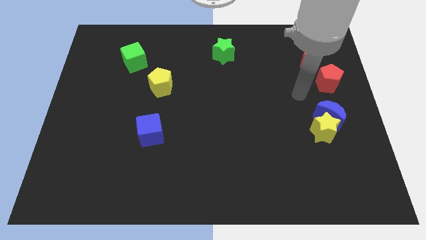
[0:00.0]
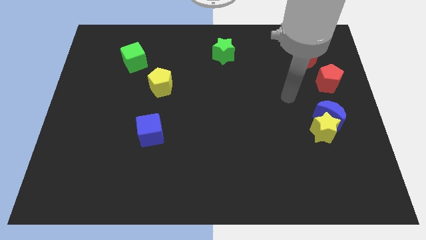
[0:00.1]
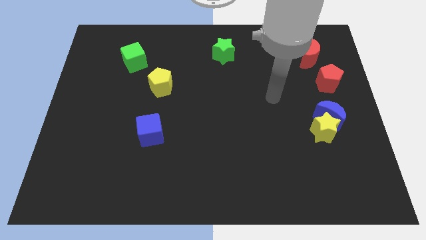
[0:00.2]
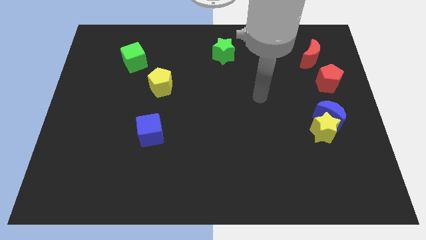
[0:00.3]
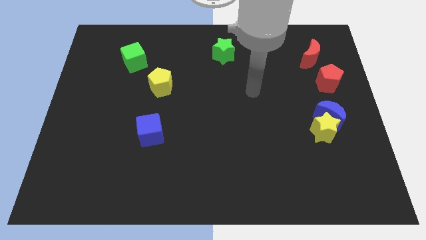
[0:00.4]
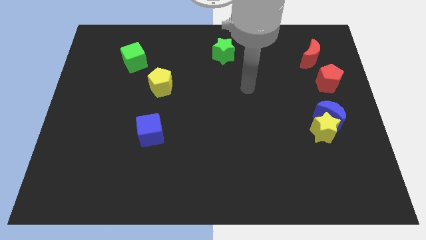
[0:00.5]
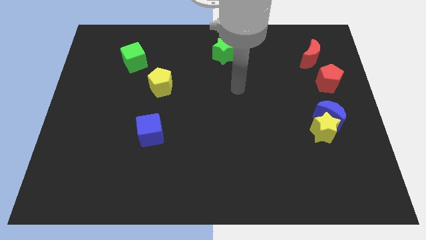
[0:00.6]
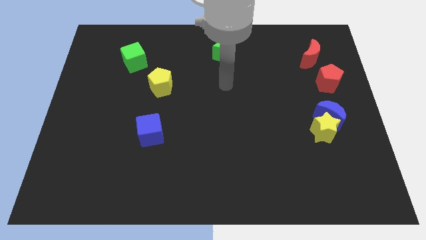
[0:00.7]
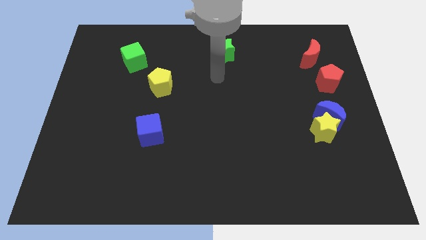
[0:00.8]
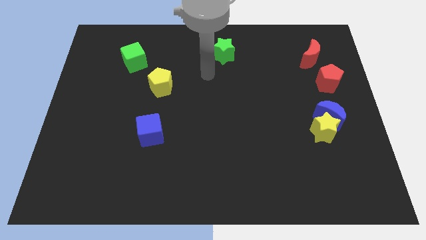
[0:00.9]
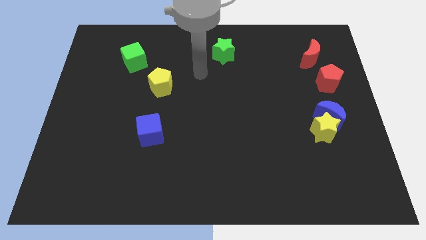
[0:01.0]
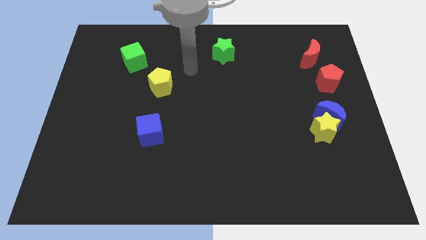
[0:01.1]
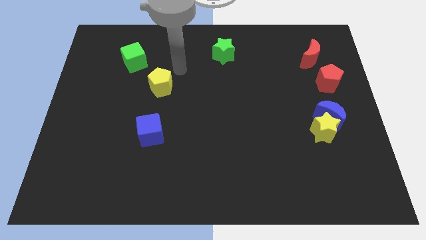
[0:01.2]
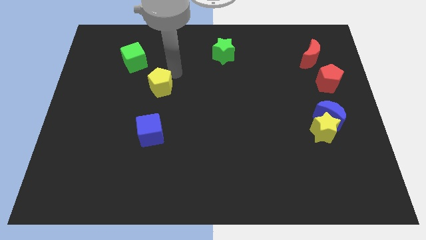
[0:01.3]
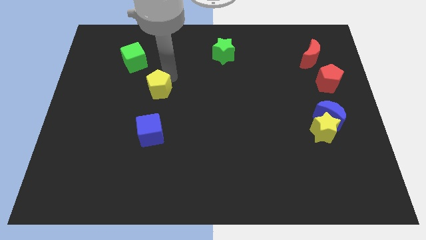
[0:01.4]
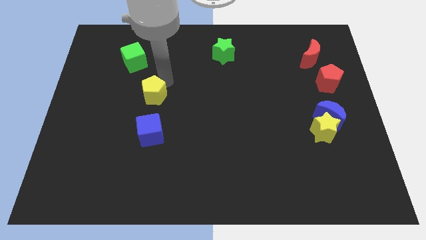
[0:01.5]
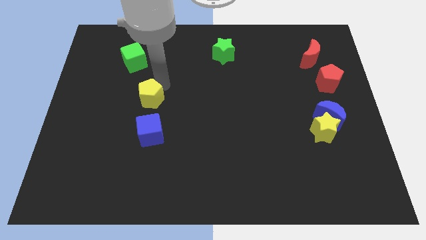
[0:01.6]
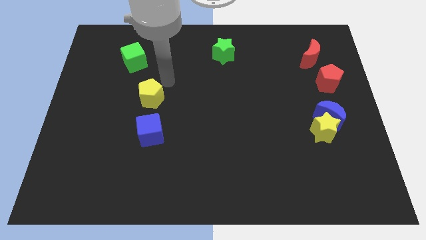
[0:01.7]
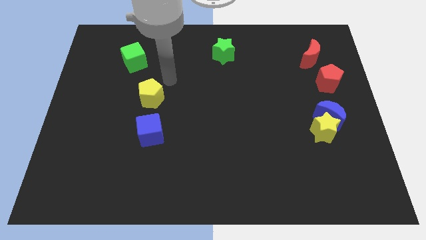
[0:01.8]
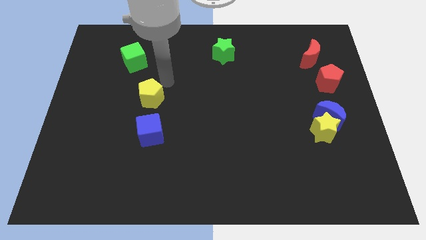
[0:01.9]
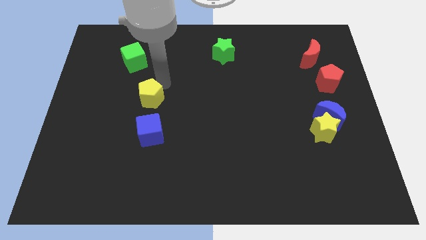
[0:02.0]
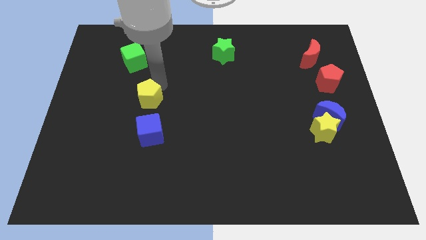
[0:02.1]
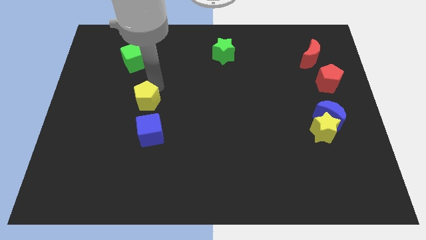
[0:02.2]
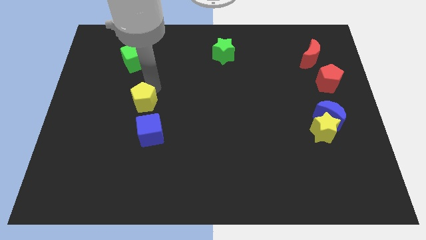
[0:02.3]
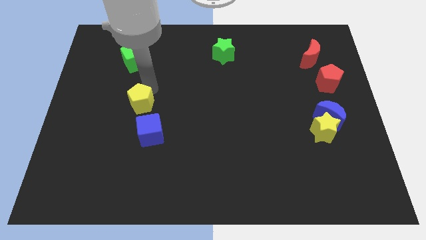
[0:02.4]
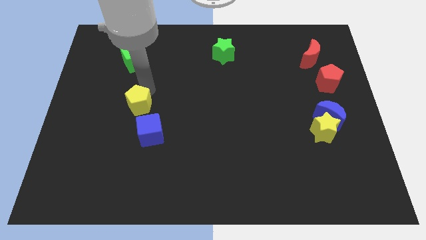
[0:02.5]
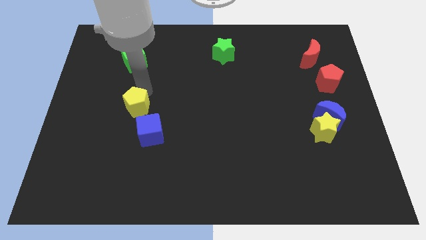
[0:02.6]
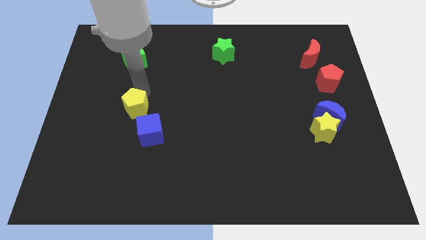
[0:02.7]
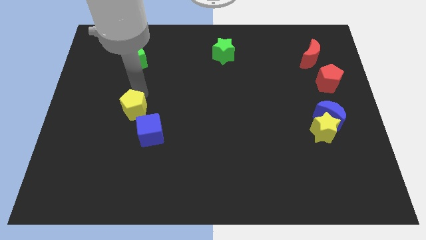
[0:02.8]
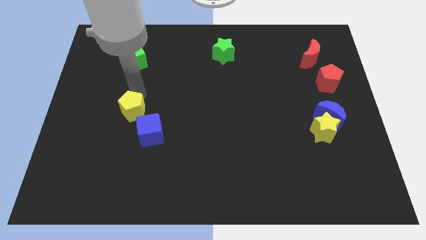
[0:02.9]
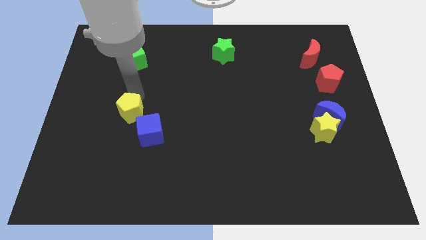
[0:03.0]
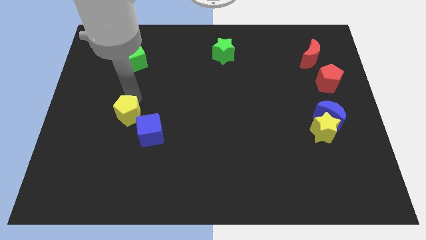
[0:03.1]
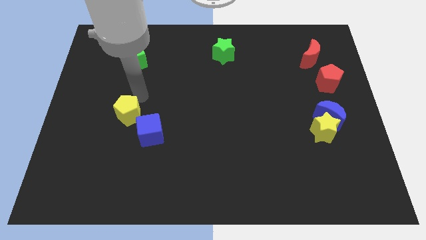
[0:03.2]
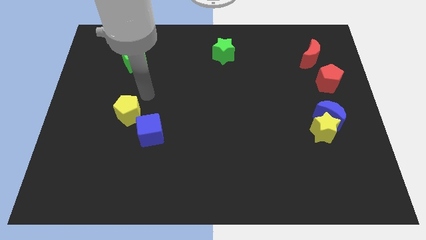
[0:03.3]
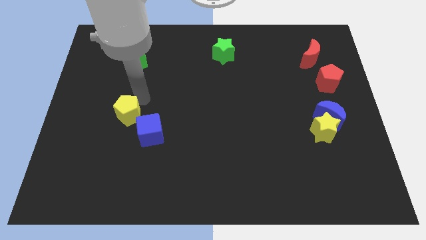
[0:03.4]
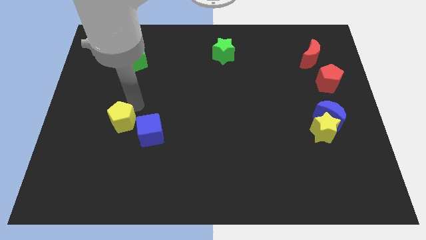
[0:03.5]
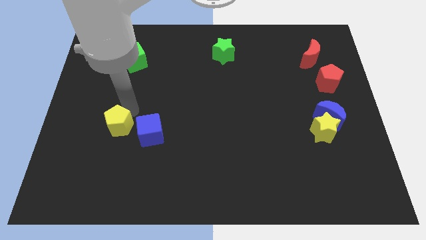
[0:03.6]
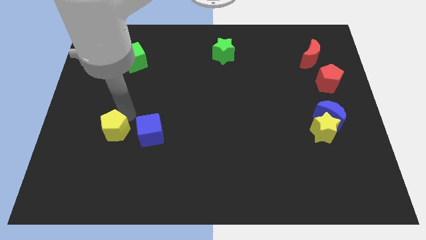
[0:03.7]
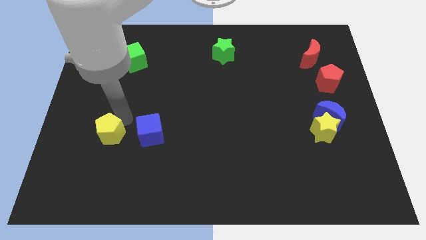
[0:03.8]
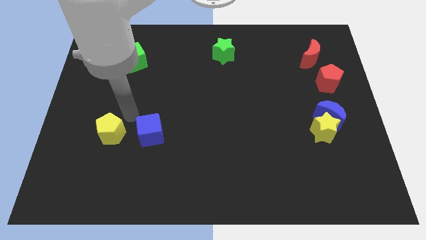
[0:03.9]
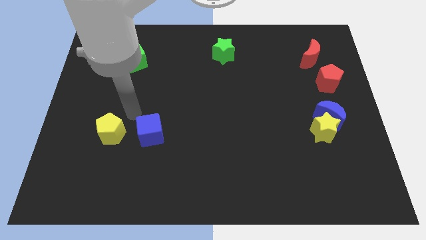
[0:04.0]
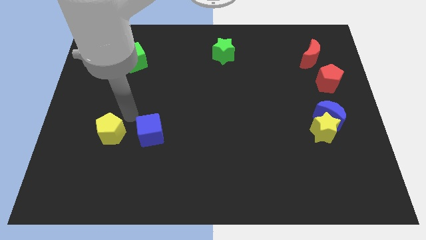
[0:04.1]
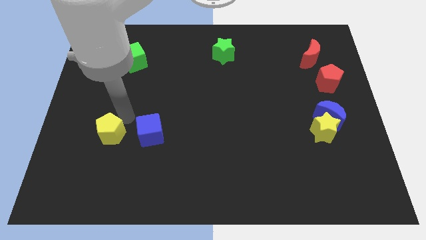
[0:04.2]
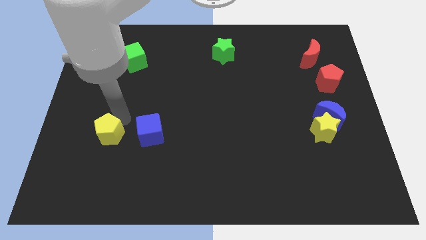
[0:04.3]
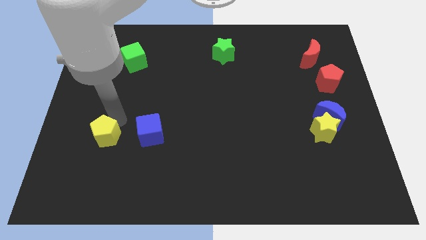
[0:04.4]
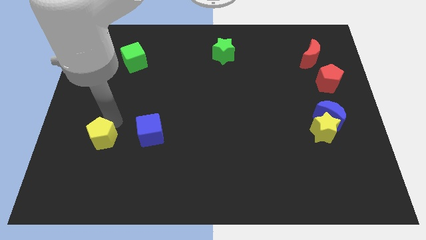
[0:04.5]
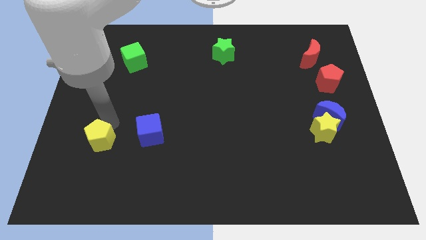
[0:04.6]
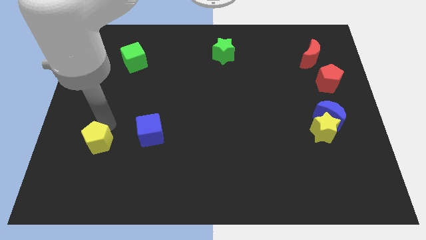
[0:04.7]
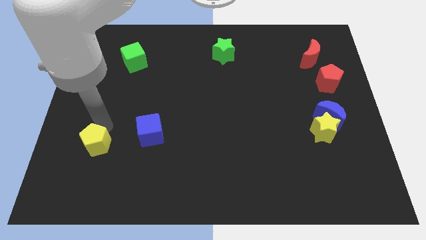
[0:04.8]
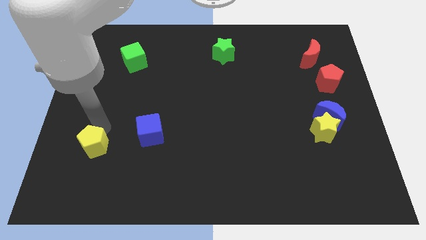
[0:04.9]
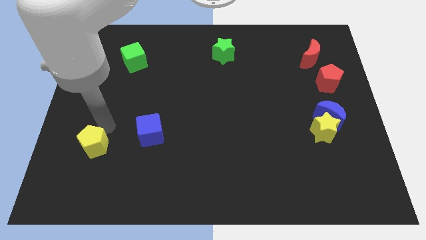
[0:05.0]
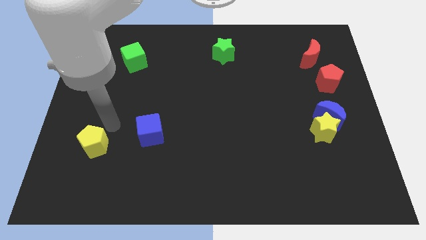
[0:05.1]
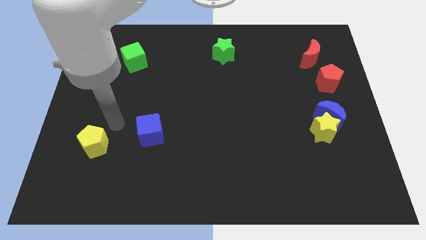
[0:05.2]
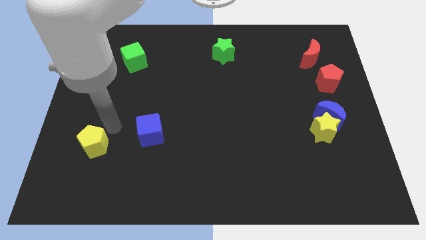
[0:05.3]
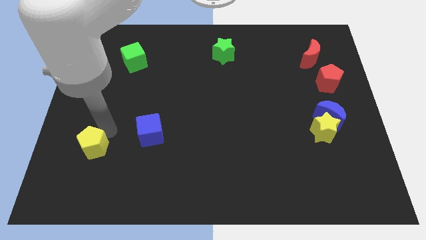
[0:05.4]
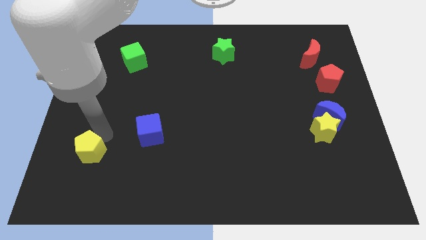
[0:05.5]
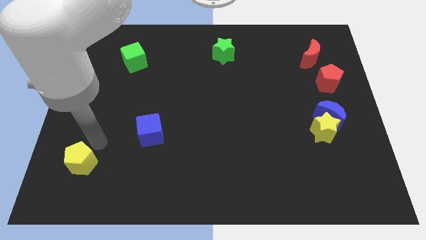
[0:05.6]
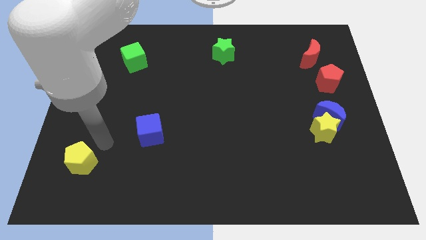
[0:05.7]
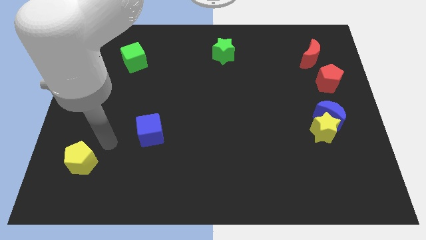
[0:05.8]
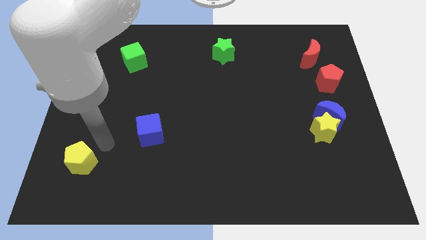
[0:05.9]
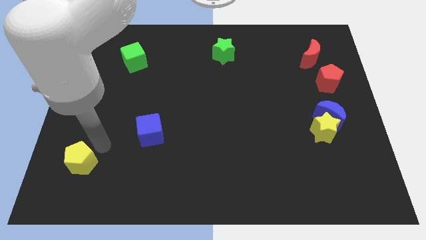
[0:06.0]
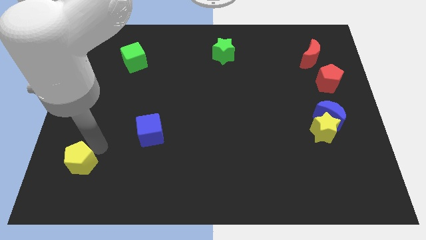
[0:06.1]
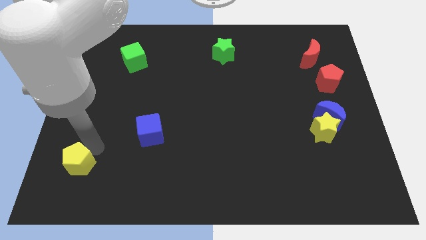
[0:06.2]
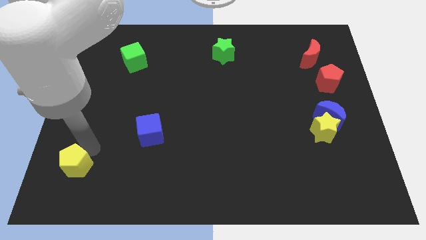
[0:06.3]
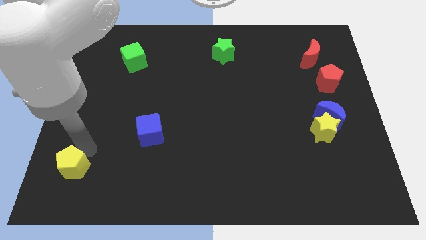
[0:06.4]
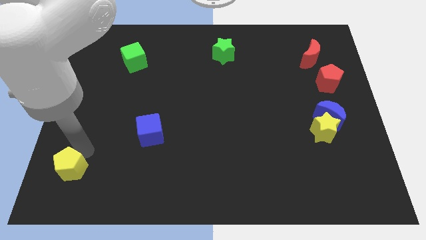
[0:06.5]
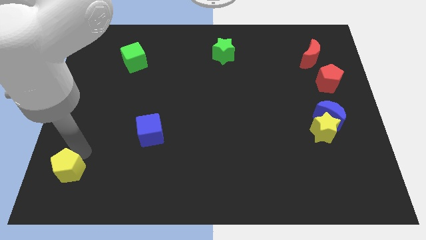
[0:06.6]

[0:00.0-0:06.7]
slide the yellow pentagon to the lower left corner
